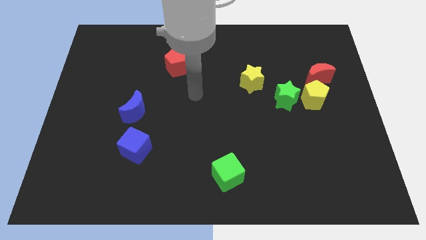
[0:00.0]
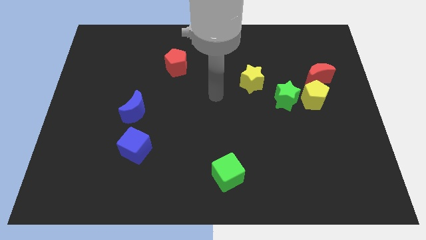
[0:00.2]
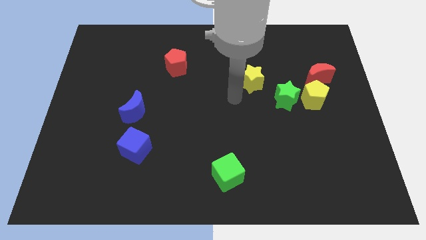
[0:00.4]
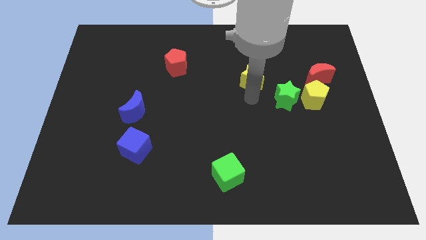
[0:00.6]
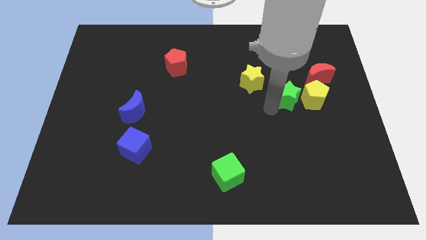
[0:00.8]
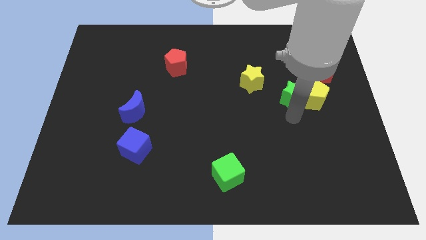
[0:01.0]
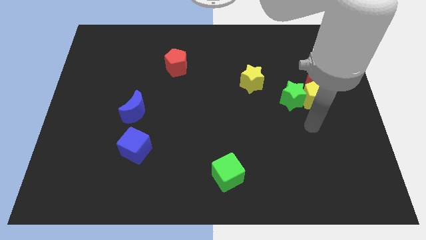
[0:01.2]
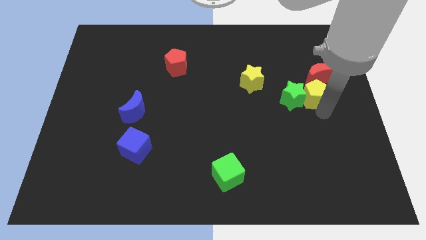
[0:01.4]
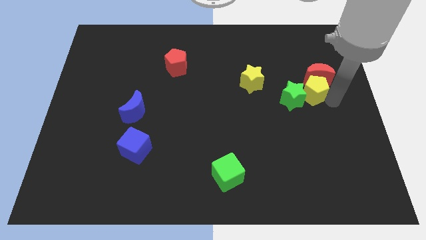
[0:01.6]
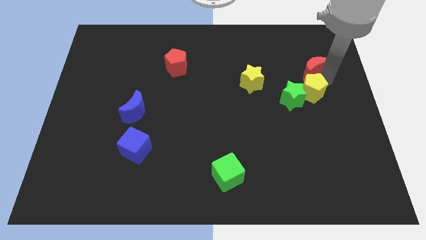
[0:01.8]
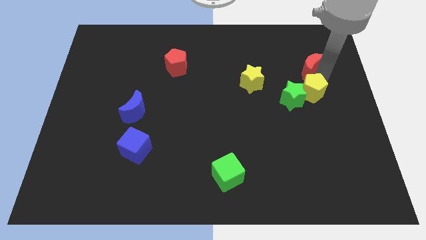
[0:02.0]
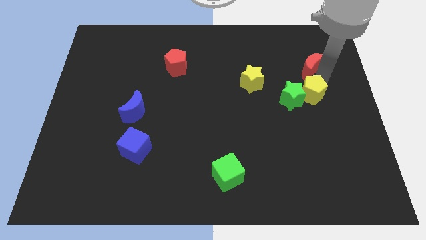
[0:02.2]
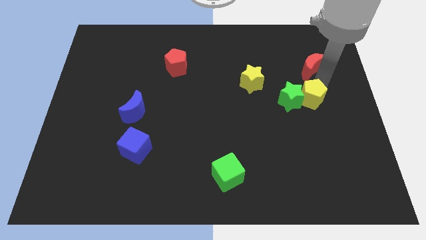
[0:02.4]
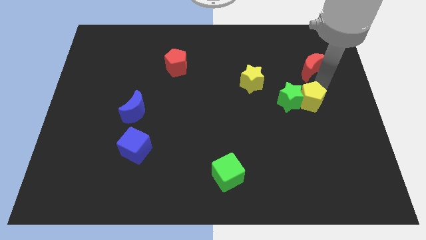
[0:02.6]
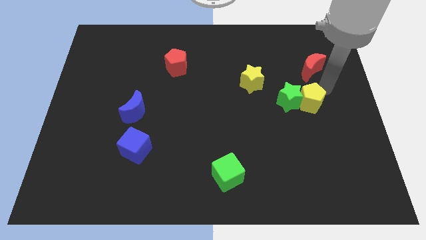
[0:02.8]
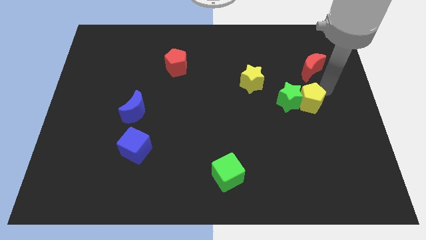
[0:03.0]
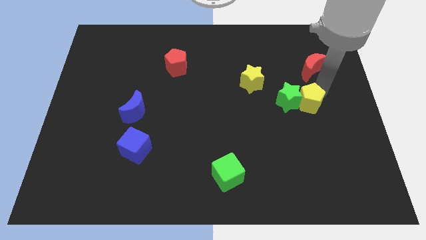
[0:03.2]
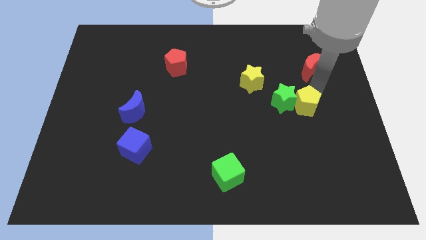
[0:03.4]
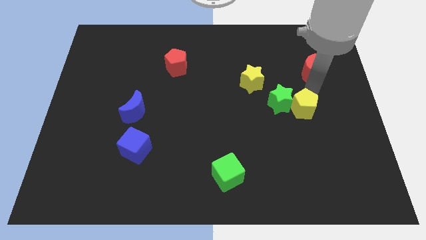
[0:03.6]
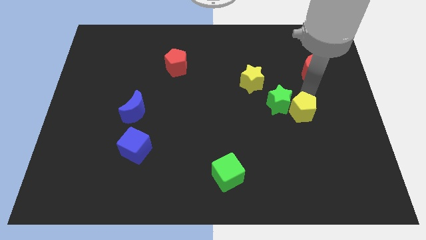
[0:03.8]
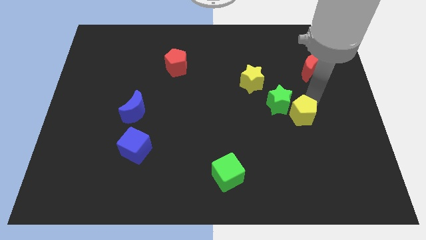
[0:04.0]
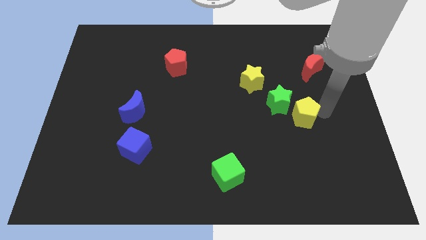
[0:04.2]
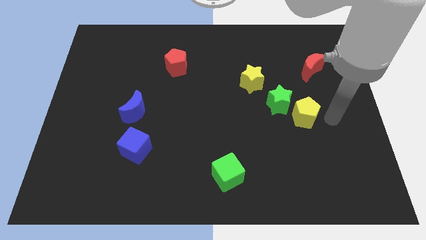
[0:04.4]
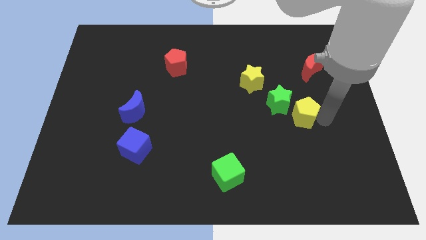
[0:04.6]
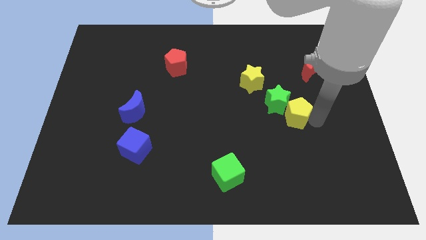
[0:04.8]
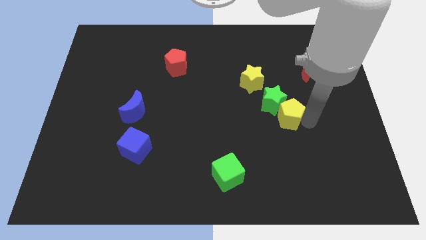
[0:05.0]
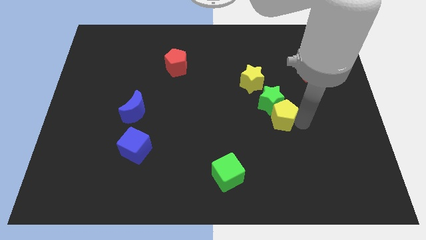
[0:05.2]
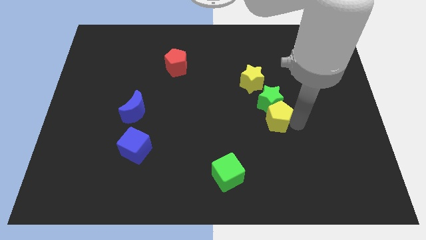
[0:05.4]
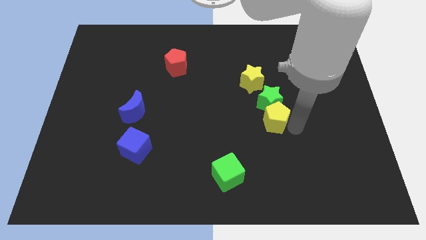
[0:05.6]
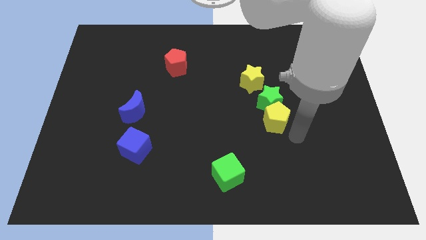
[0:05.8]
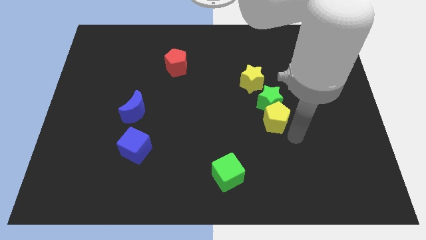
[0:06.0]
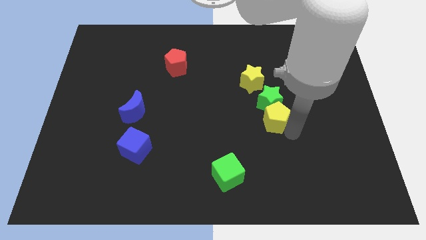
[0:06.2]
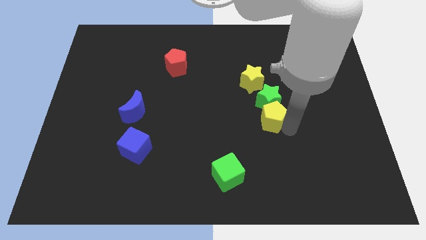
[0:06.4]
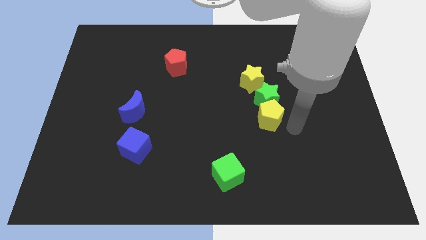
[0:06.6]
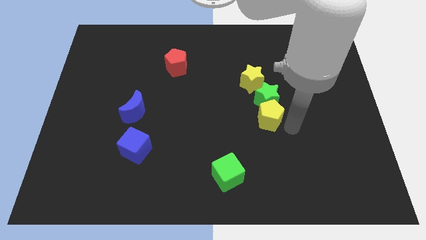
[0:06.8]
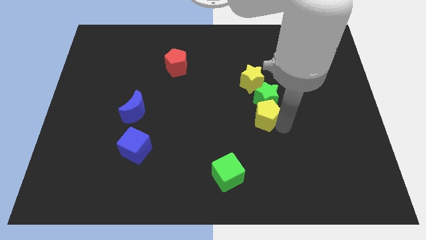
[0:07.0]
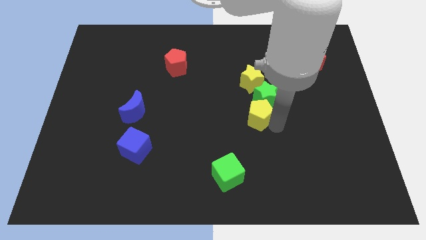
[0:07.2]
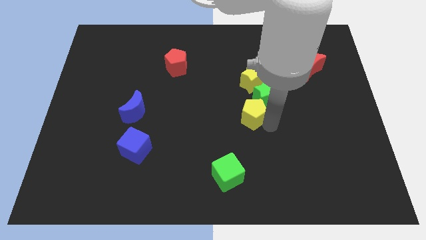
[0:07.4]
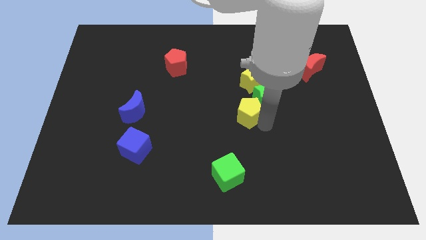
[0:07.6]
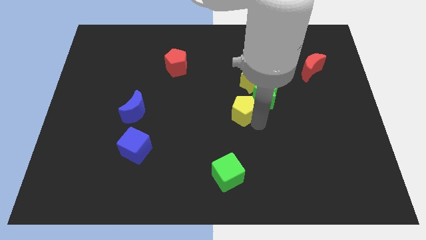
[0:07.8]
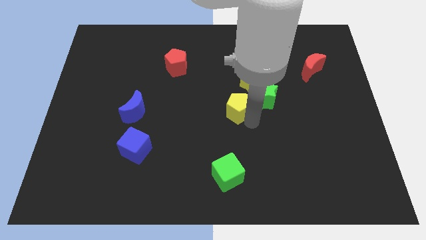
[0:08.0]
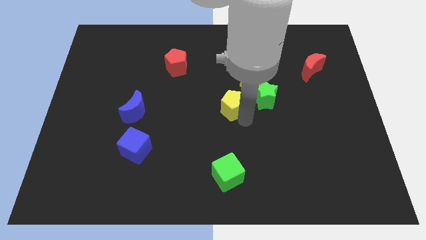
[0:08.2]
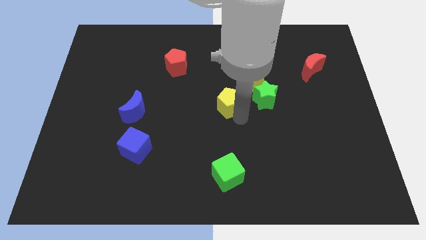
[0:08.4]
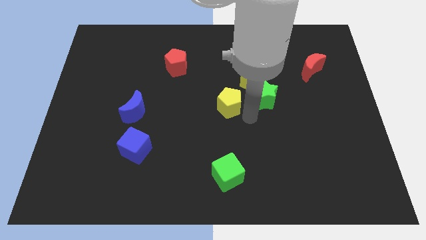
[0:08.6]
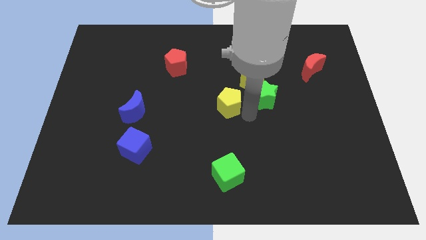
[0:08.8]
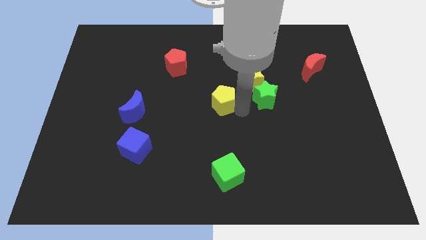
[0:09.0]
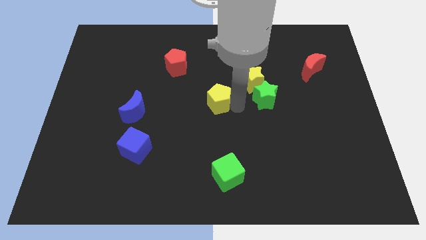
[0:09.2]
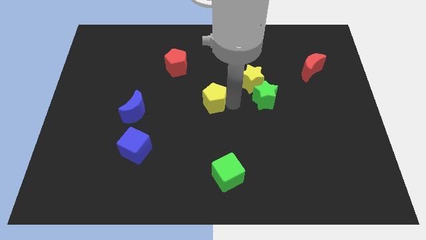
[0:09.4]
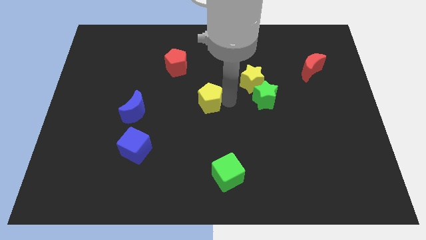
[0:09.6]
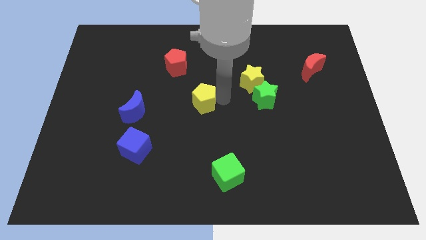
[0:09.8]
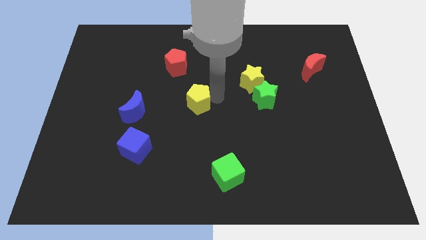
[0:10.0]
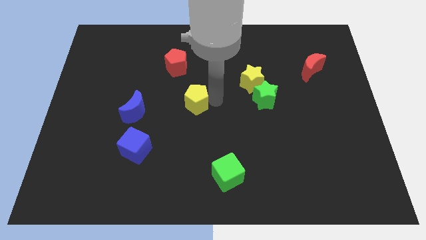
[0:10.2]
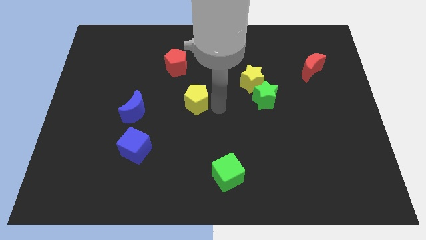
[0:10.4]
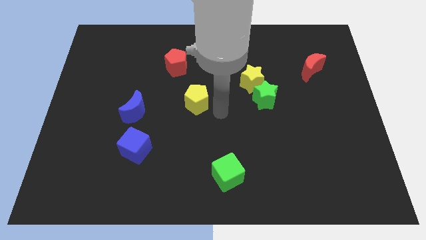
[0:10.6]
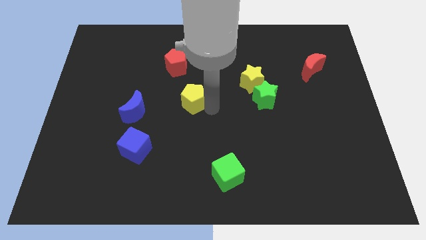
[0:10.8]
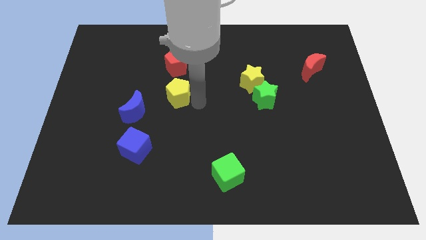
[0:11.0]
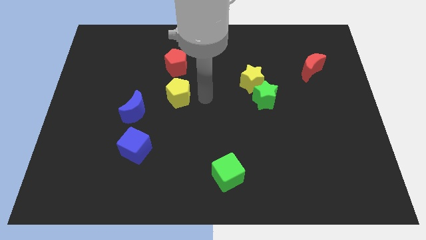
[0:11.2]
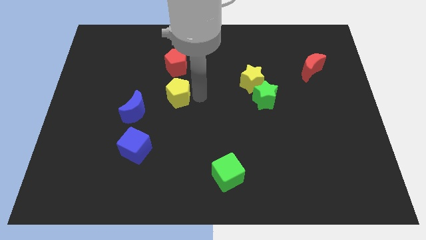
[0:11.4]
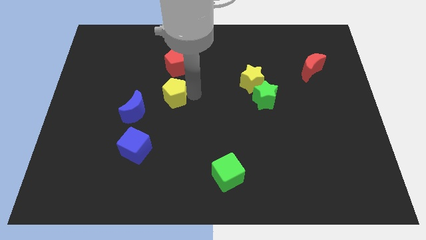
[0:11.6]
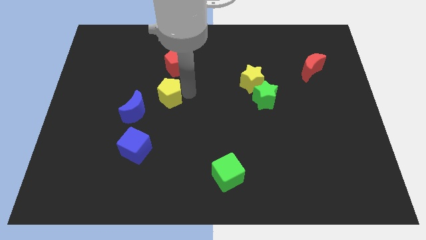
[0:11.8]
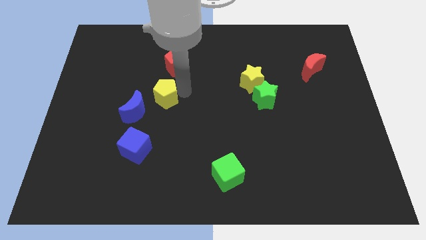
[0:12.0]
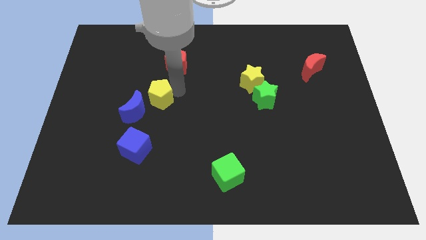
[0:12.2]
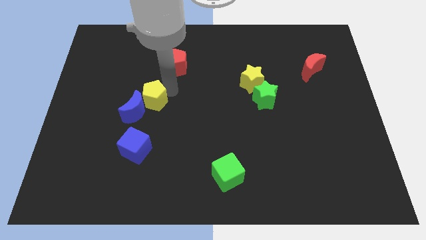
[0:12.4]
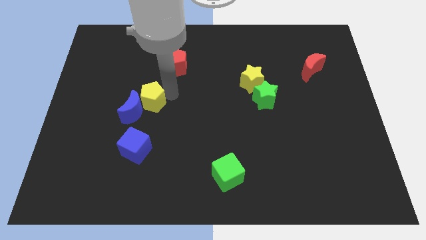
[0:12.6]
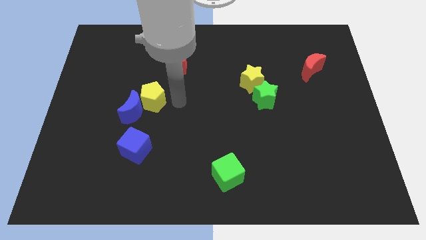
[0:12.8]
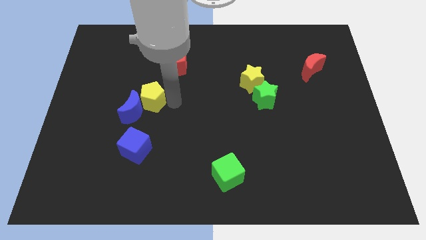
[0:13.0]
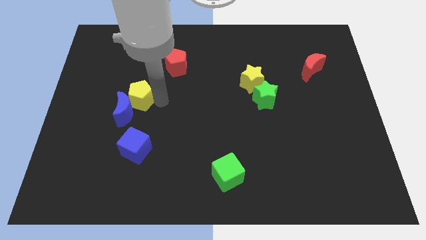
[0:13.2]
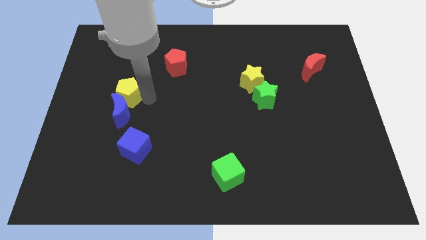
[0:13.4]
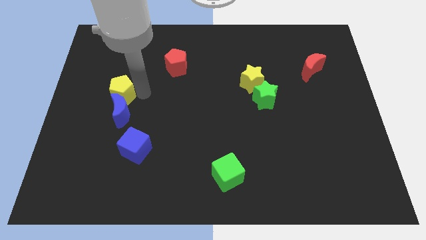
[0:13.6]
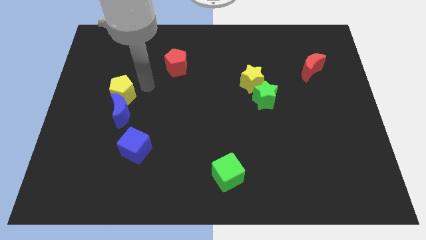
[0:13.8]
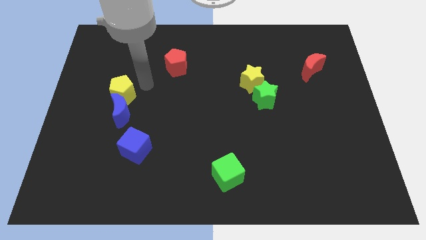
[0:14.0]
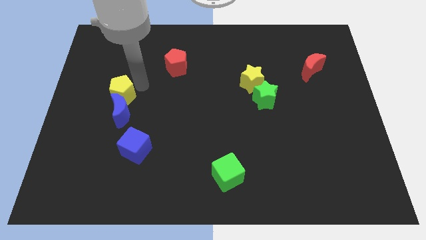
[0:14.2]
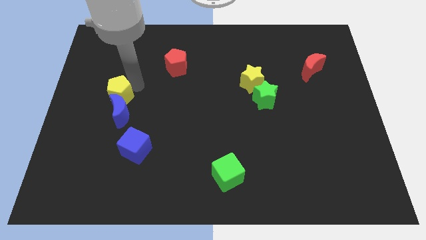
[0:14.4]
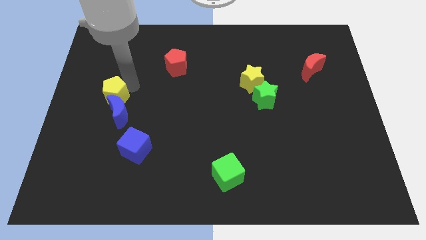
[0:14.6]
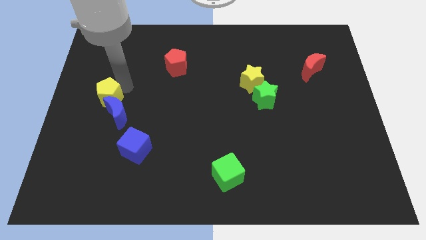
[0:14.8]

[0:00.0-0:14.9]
slide the yellow pentagon to the left side of the board

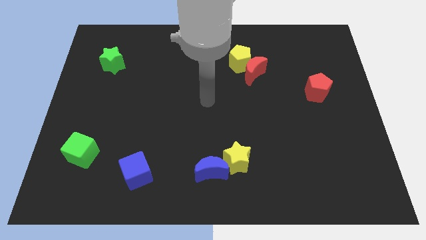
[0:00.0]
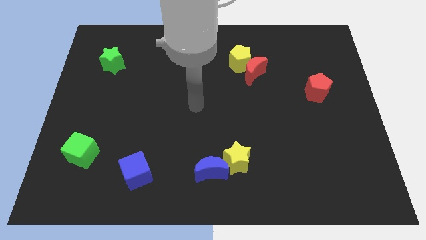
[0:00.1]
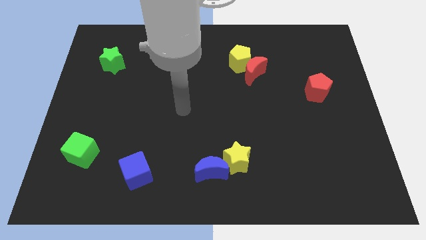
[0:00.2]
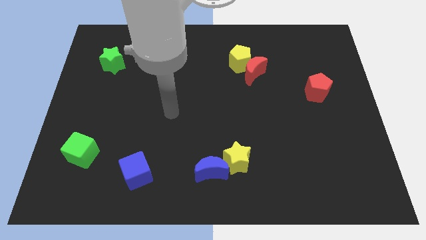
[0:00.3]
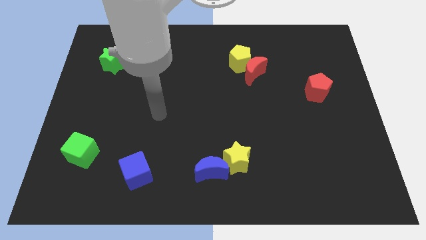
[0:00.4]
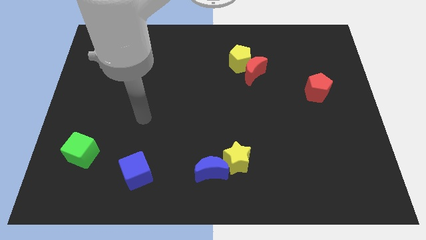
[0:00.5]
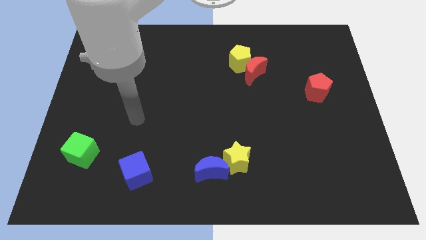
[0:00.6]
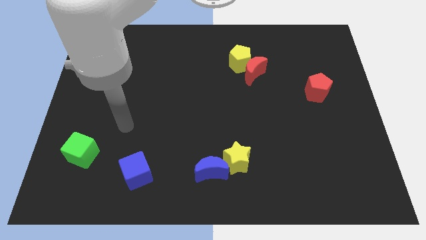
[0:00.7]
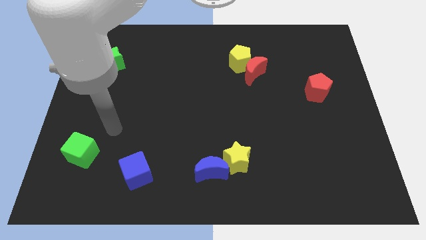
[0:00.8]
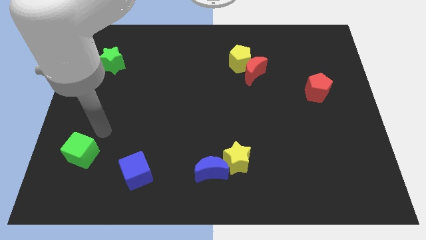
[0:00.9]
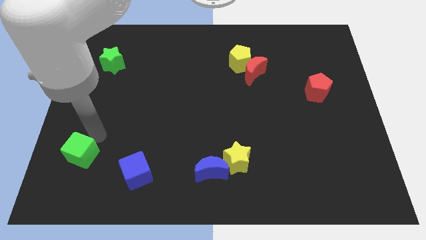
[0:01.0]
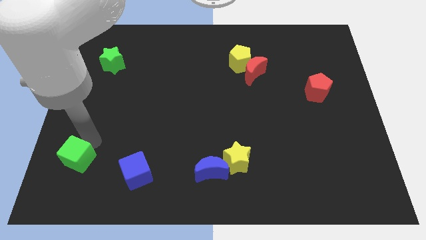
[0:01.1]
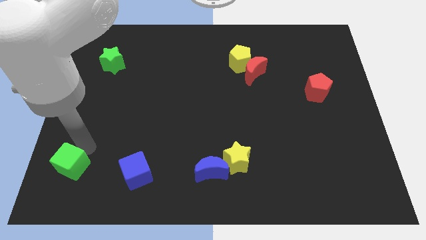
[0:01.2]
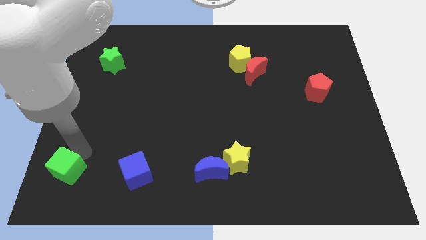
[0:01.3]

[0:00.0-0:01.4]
slide the green cube to the bottom left corner
